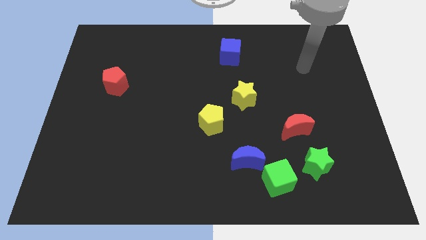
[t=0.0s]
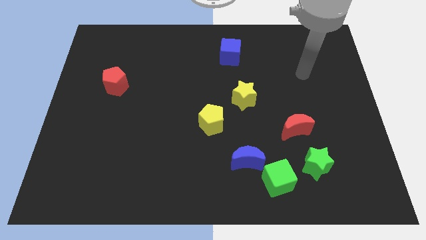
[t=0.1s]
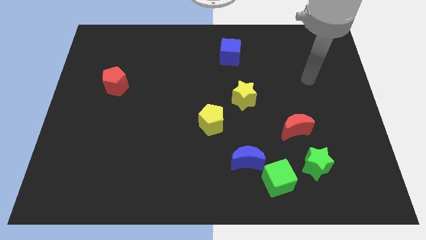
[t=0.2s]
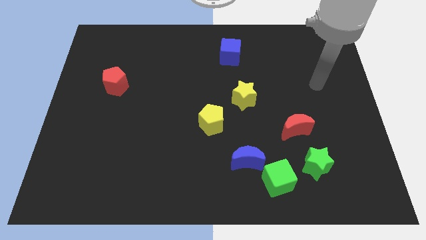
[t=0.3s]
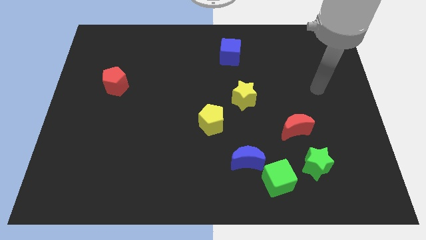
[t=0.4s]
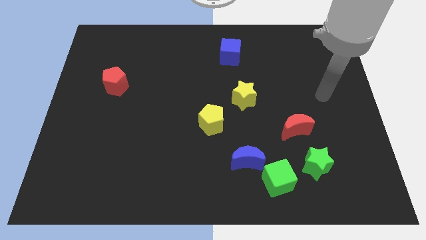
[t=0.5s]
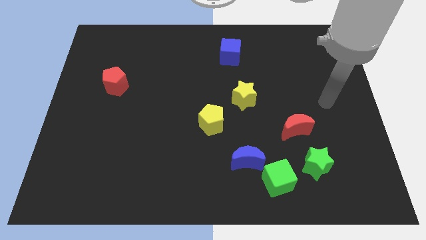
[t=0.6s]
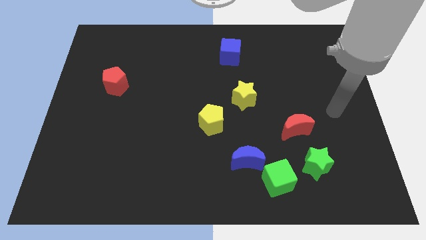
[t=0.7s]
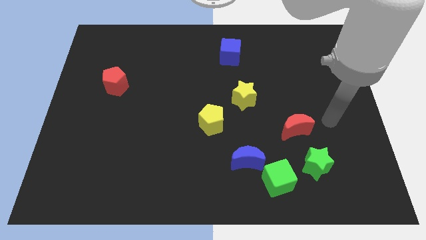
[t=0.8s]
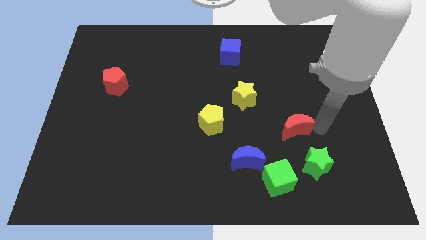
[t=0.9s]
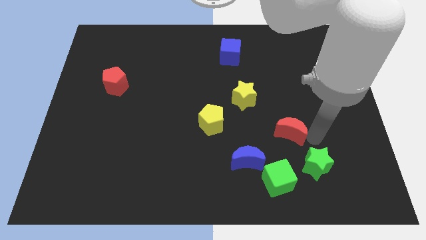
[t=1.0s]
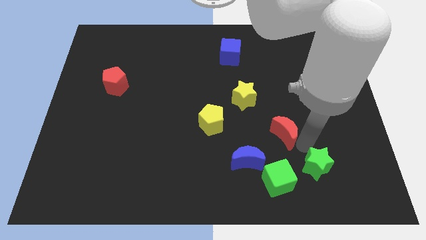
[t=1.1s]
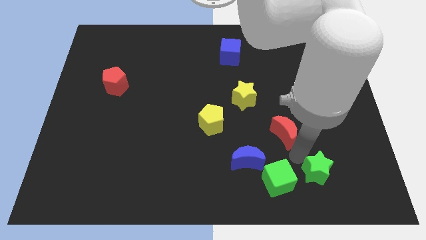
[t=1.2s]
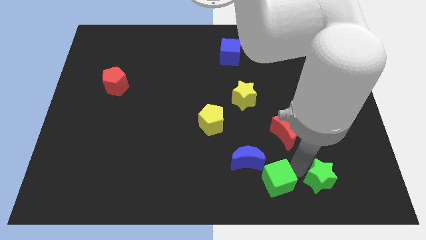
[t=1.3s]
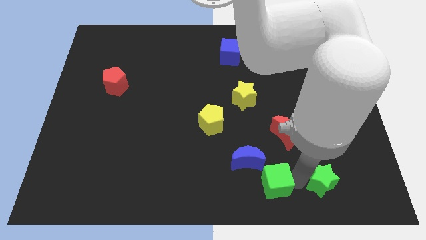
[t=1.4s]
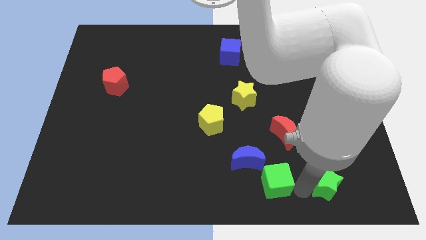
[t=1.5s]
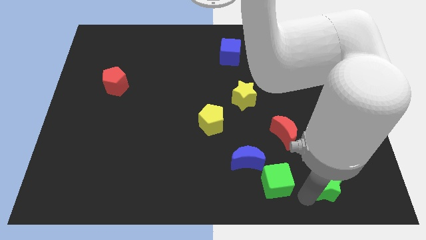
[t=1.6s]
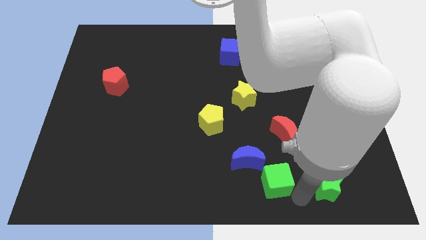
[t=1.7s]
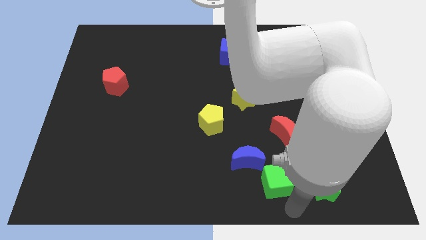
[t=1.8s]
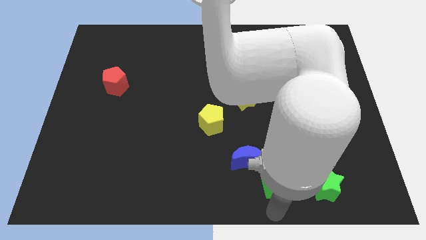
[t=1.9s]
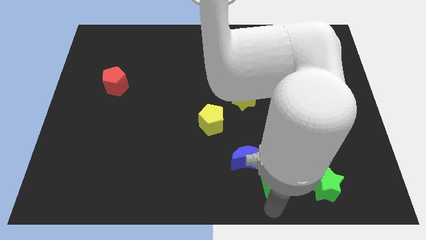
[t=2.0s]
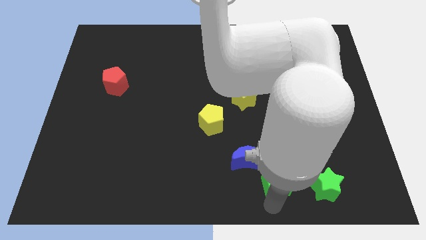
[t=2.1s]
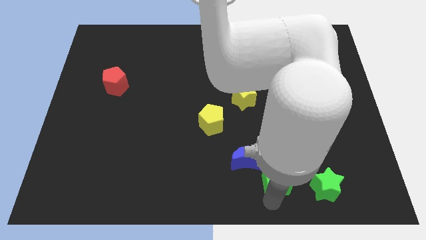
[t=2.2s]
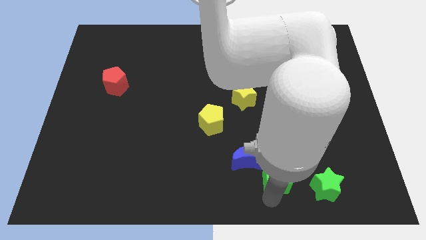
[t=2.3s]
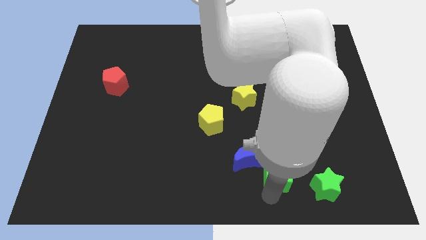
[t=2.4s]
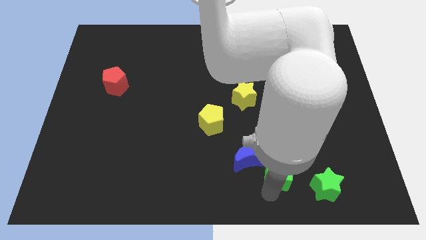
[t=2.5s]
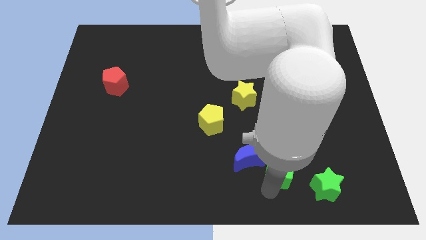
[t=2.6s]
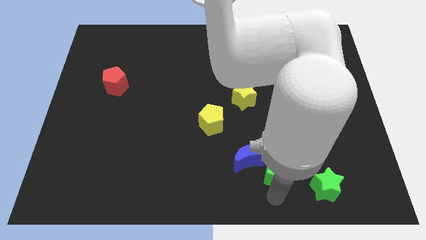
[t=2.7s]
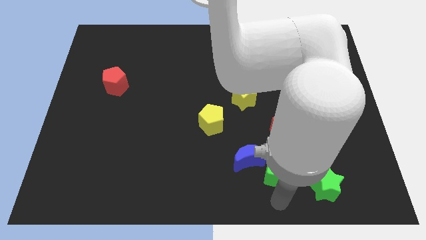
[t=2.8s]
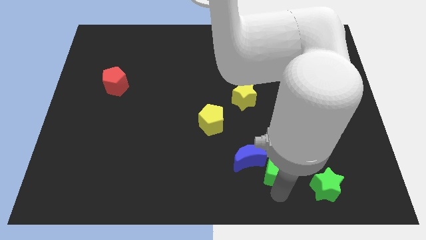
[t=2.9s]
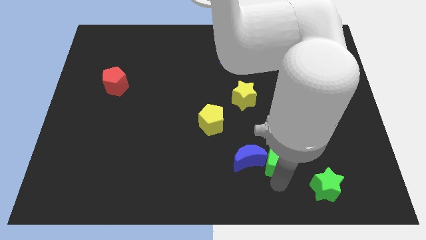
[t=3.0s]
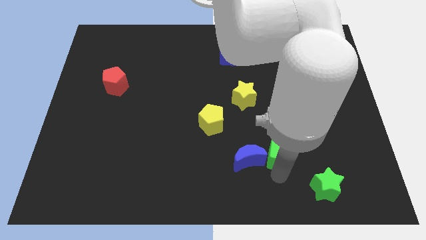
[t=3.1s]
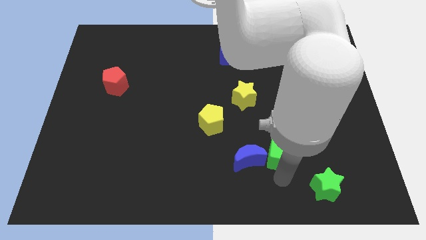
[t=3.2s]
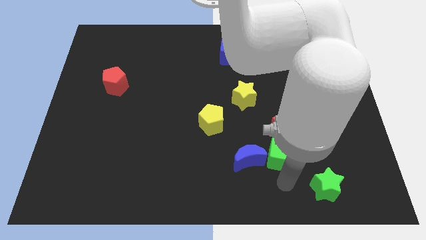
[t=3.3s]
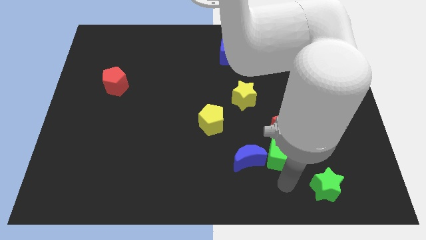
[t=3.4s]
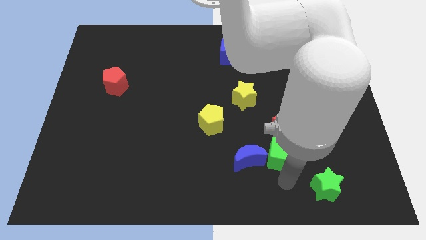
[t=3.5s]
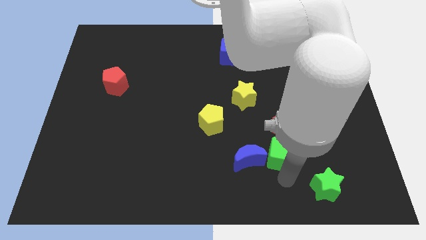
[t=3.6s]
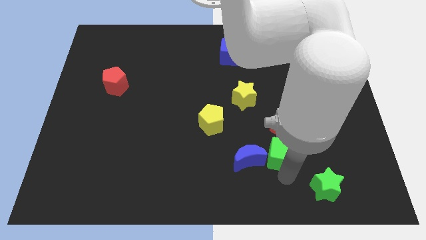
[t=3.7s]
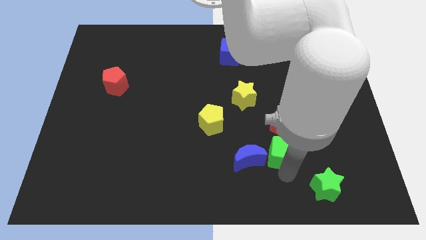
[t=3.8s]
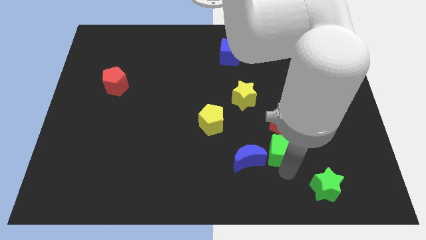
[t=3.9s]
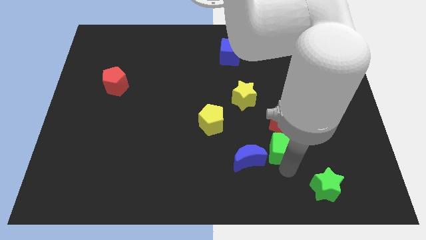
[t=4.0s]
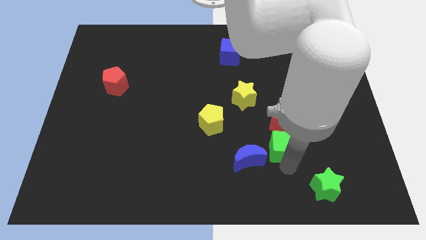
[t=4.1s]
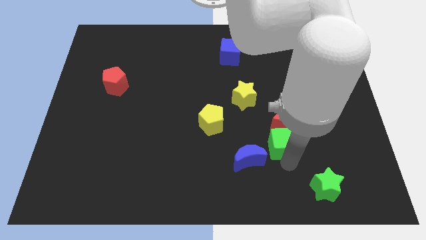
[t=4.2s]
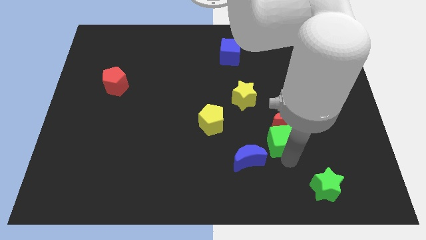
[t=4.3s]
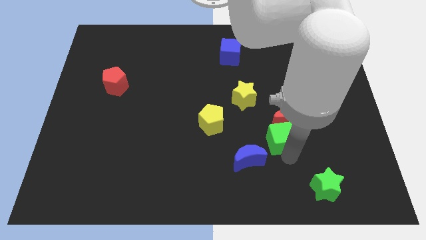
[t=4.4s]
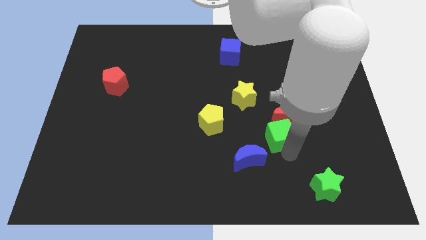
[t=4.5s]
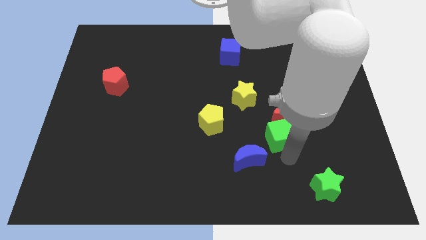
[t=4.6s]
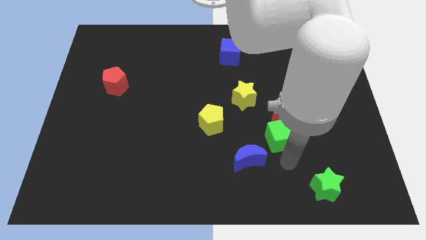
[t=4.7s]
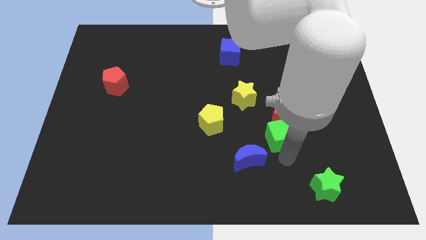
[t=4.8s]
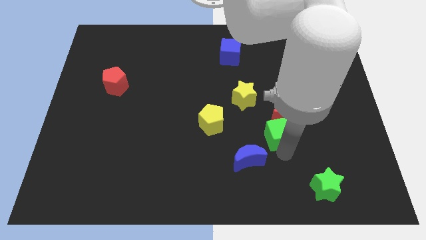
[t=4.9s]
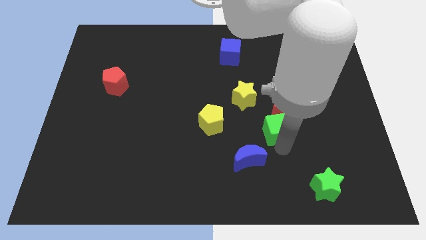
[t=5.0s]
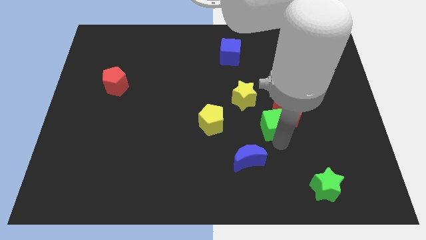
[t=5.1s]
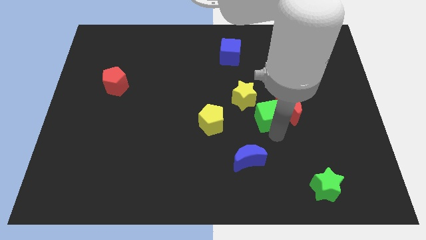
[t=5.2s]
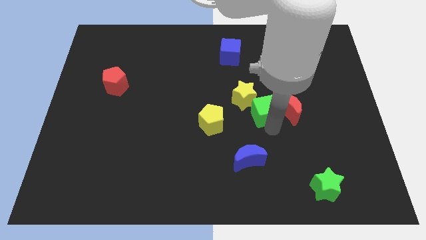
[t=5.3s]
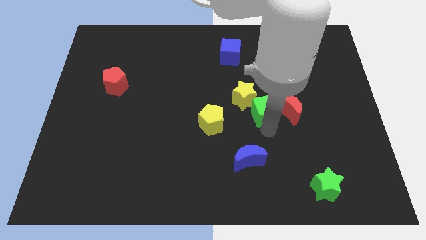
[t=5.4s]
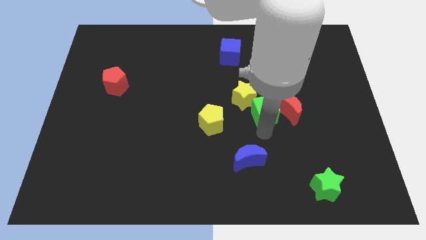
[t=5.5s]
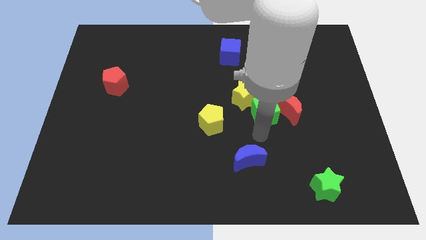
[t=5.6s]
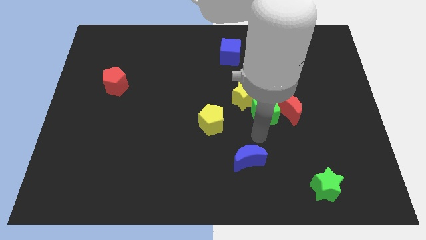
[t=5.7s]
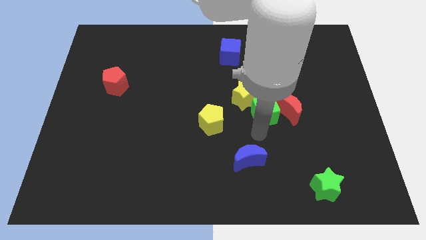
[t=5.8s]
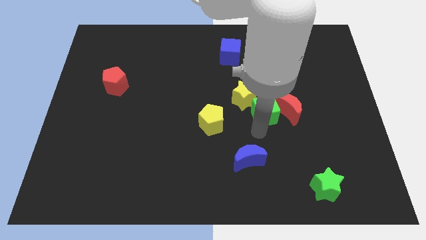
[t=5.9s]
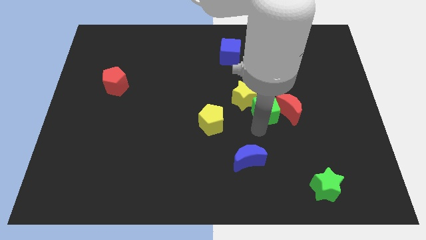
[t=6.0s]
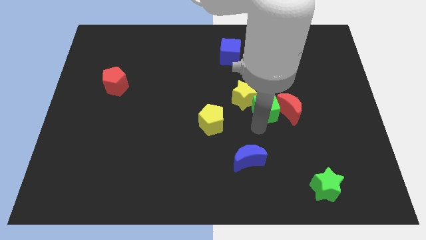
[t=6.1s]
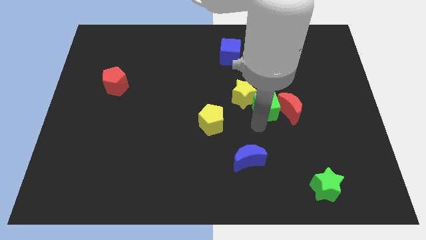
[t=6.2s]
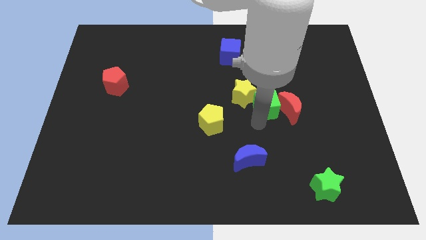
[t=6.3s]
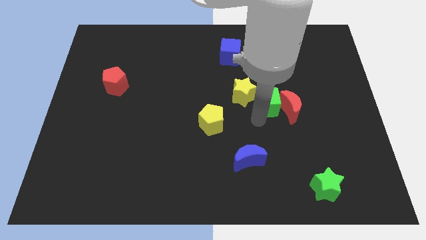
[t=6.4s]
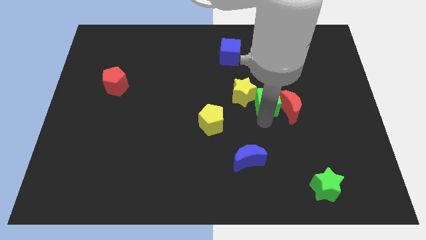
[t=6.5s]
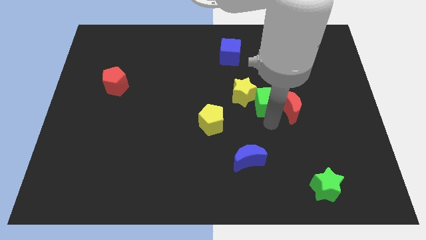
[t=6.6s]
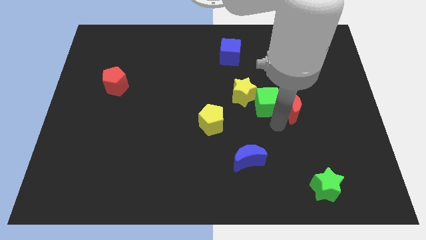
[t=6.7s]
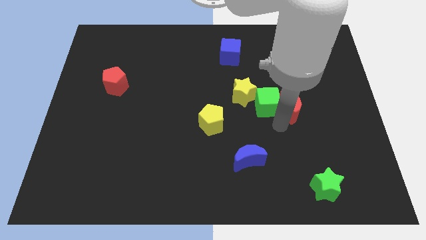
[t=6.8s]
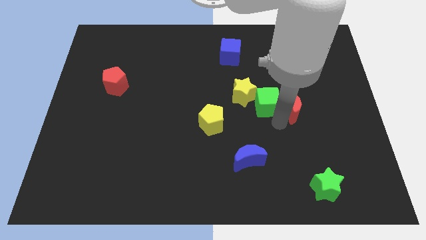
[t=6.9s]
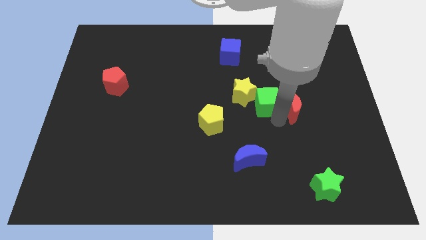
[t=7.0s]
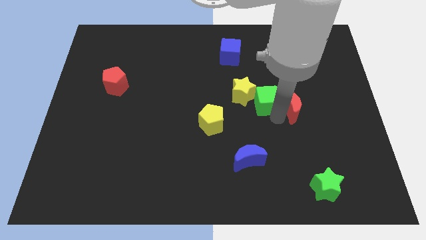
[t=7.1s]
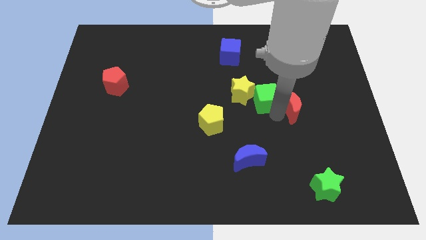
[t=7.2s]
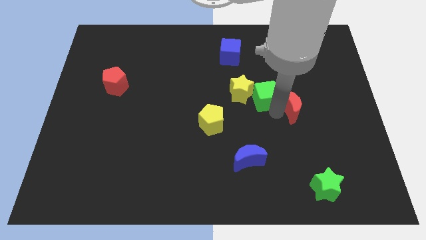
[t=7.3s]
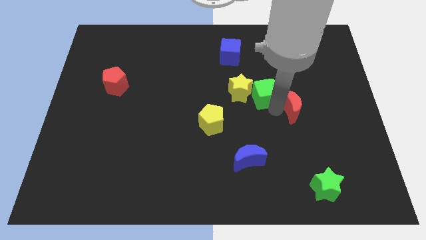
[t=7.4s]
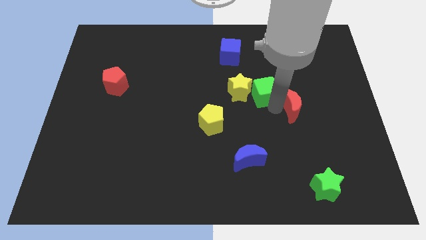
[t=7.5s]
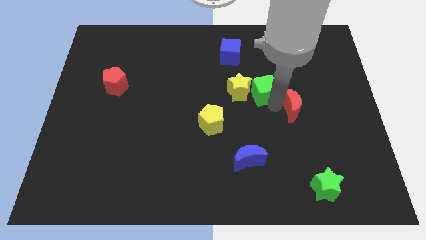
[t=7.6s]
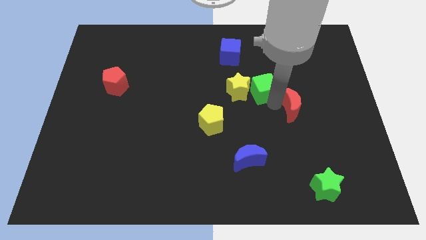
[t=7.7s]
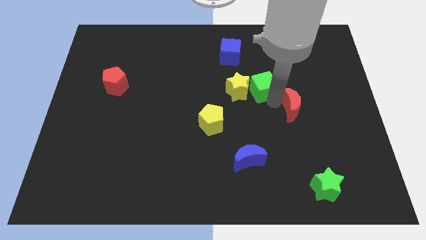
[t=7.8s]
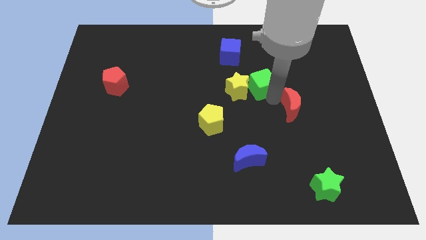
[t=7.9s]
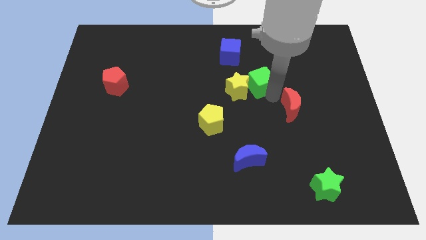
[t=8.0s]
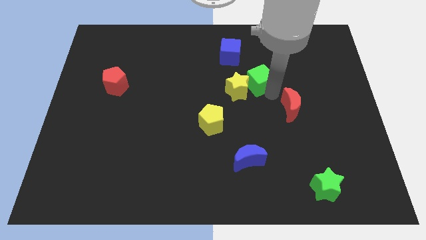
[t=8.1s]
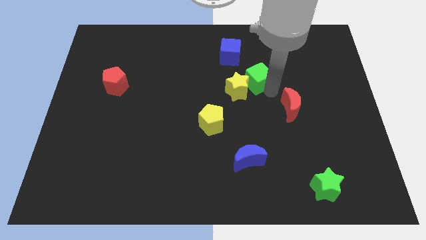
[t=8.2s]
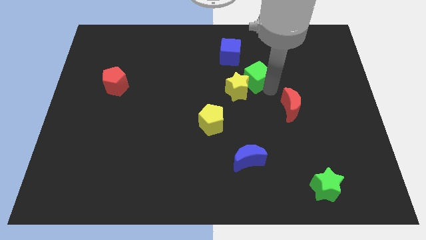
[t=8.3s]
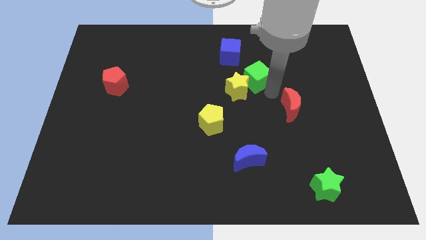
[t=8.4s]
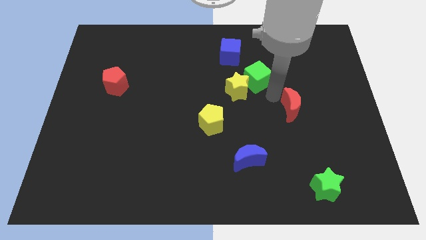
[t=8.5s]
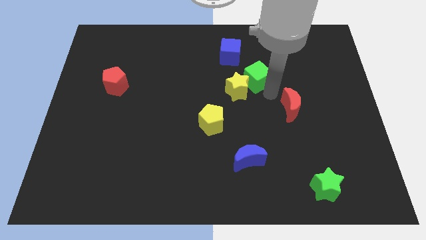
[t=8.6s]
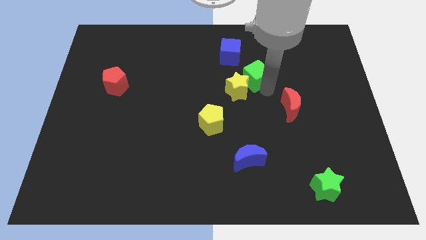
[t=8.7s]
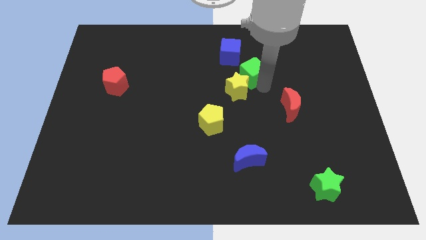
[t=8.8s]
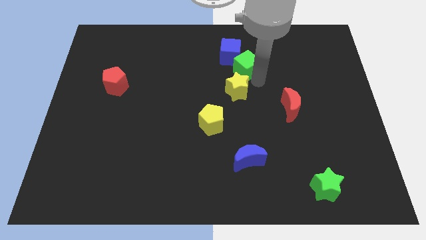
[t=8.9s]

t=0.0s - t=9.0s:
move the green cube close to the blue cube
